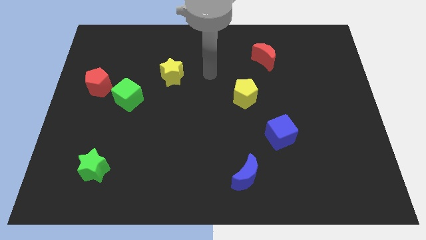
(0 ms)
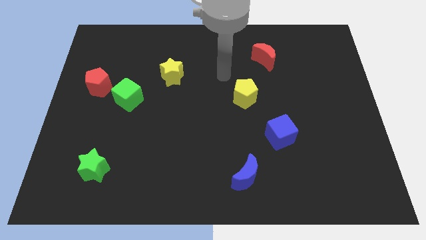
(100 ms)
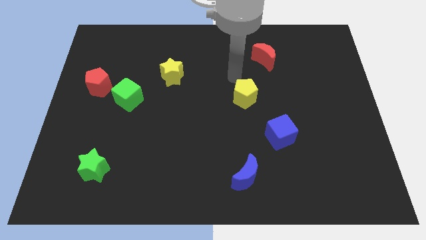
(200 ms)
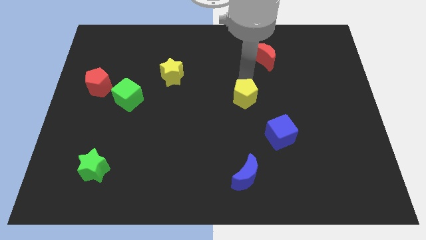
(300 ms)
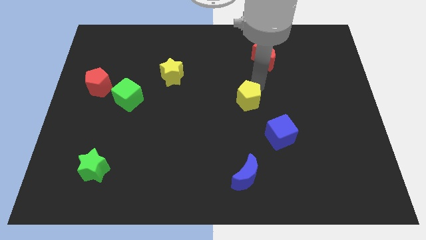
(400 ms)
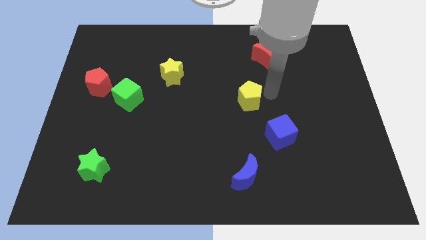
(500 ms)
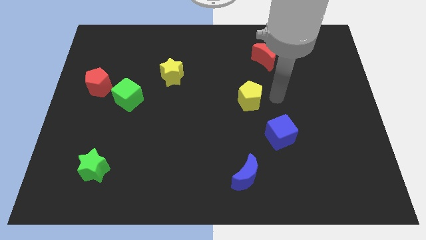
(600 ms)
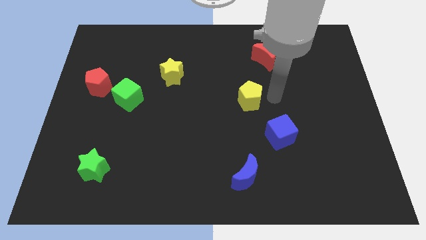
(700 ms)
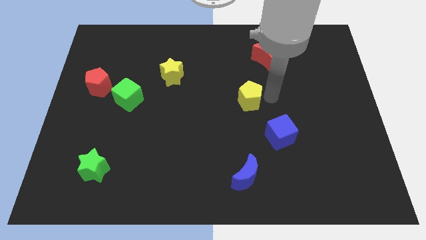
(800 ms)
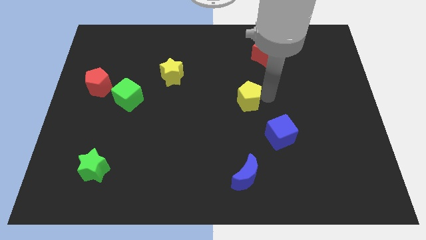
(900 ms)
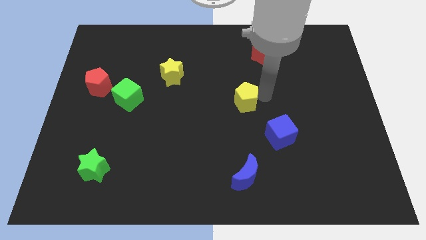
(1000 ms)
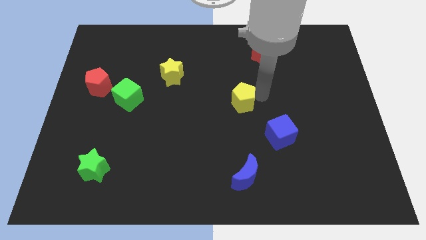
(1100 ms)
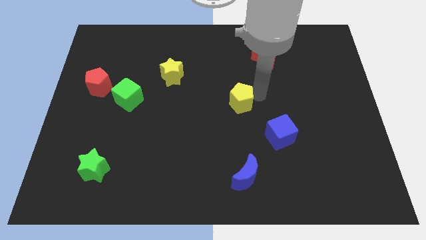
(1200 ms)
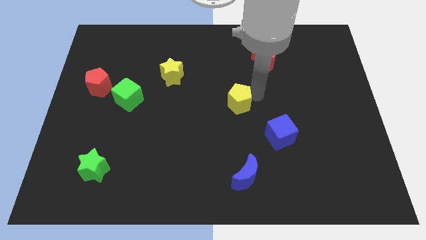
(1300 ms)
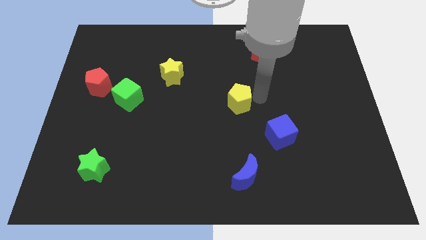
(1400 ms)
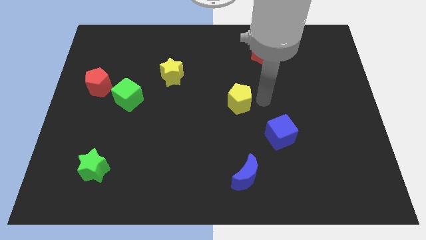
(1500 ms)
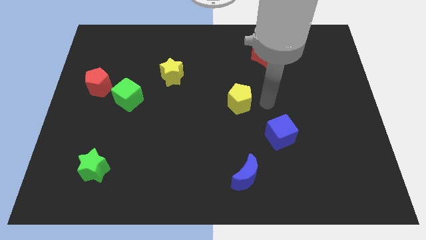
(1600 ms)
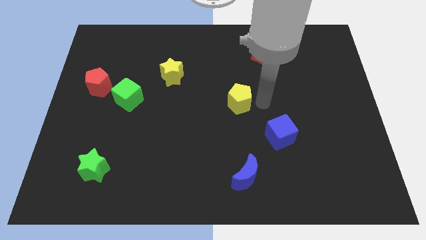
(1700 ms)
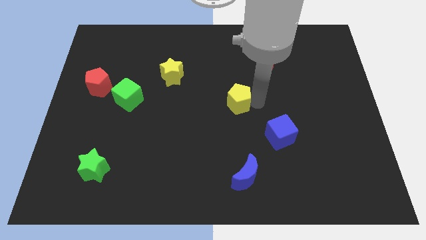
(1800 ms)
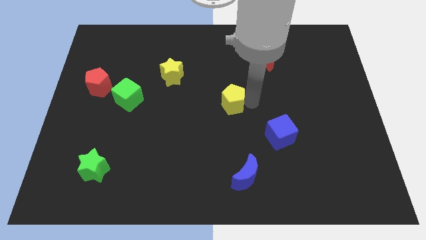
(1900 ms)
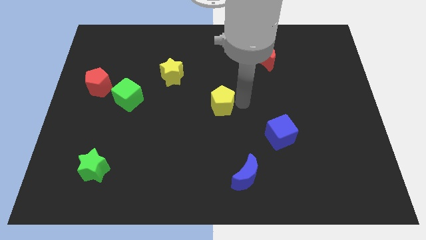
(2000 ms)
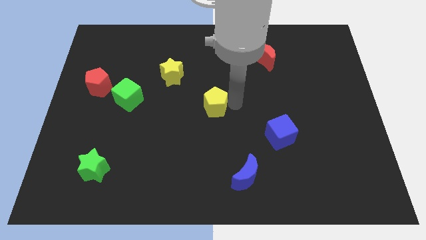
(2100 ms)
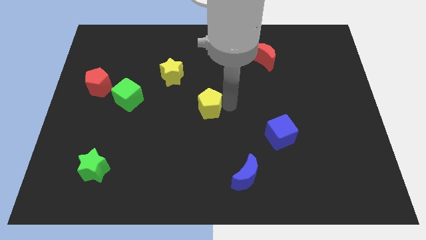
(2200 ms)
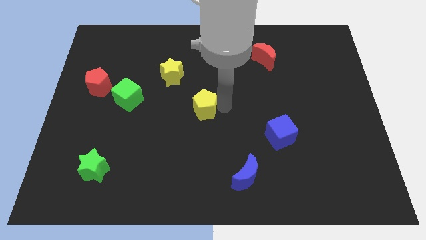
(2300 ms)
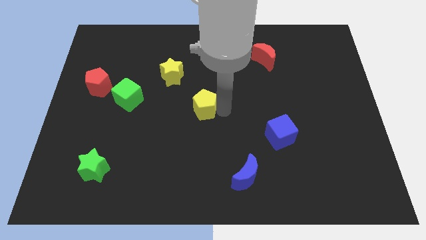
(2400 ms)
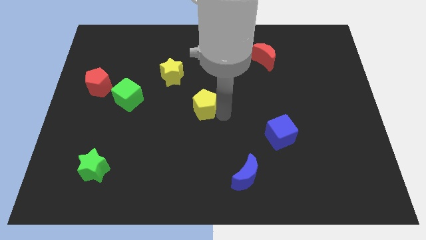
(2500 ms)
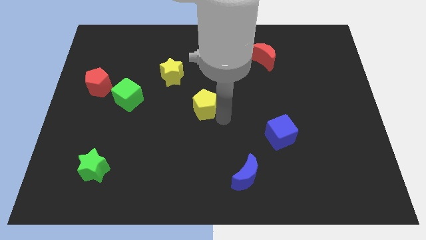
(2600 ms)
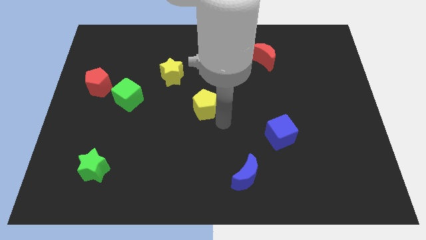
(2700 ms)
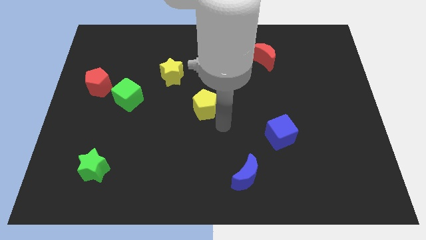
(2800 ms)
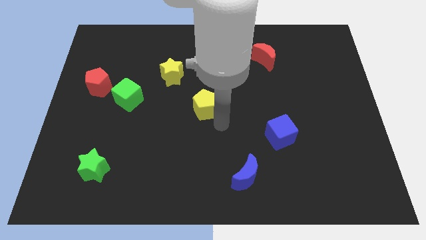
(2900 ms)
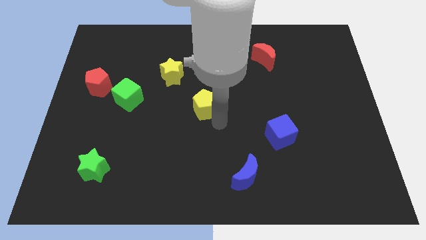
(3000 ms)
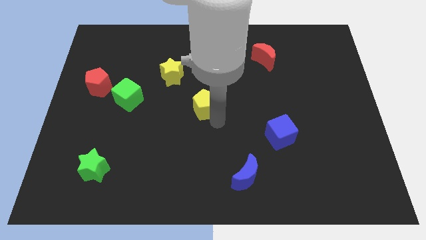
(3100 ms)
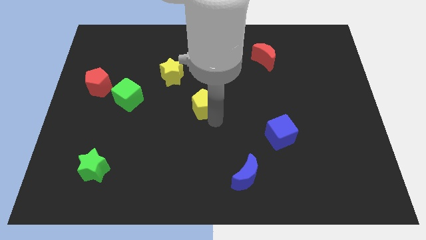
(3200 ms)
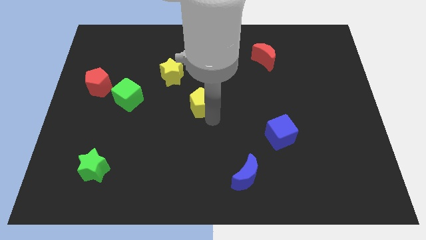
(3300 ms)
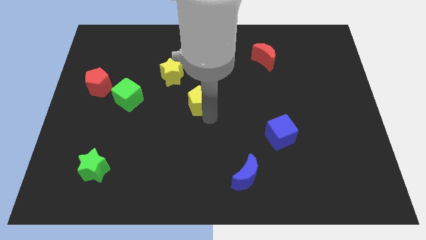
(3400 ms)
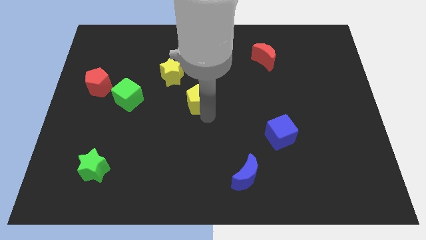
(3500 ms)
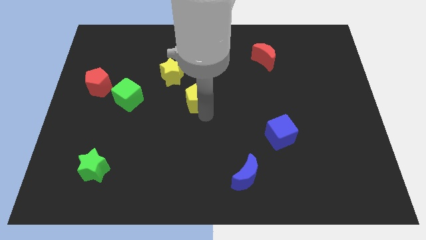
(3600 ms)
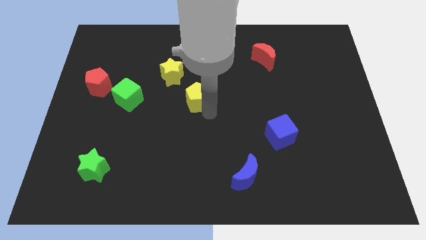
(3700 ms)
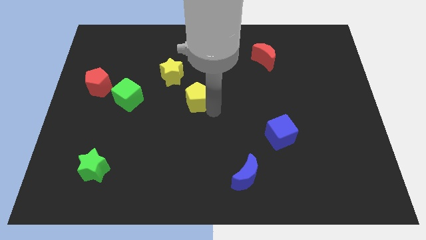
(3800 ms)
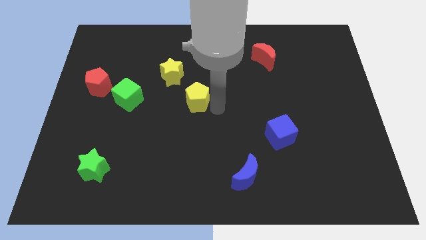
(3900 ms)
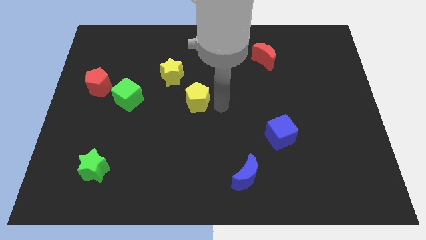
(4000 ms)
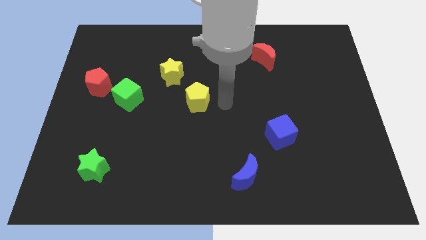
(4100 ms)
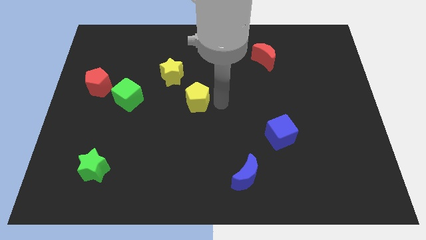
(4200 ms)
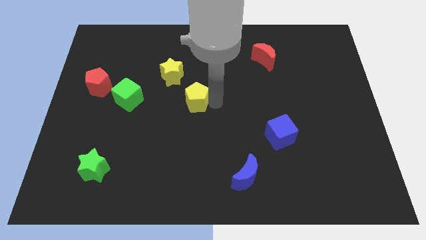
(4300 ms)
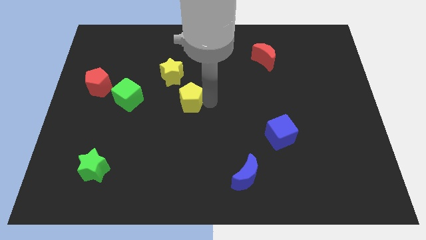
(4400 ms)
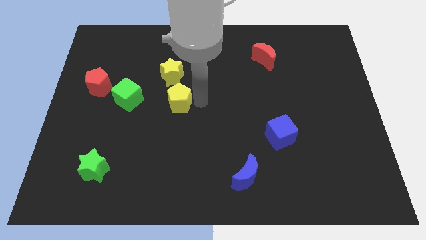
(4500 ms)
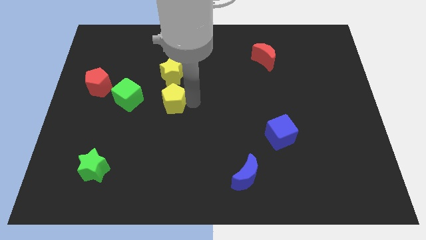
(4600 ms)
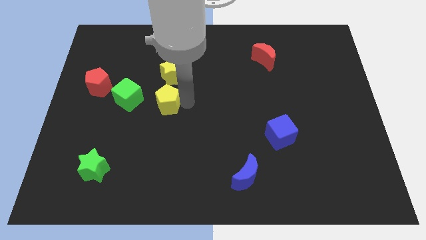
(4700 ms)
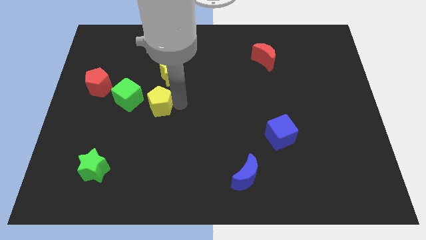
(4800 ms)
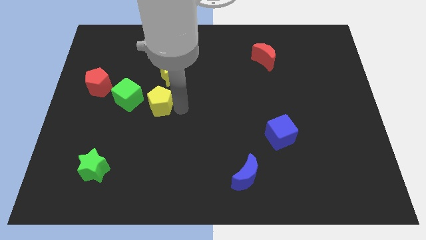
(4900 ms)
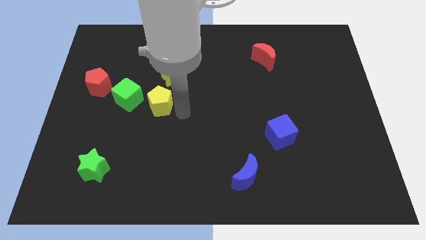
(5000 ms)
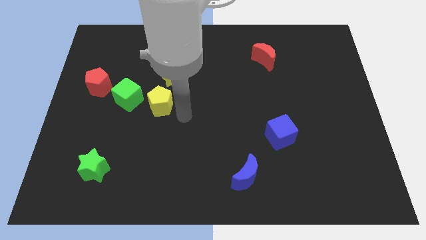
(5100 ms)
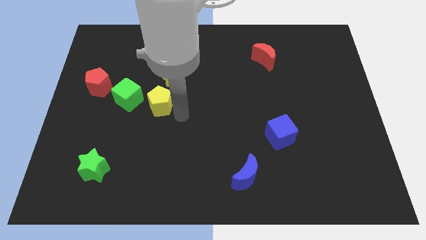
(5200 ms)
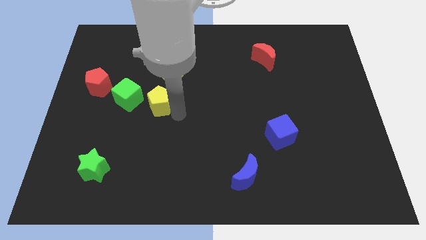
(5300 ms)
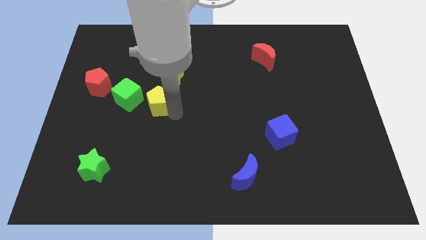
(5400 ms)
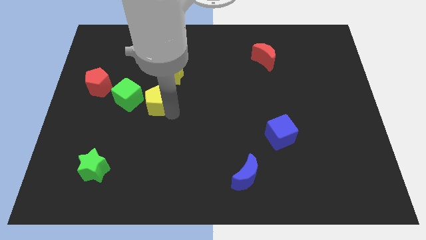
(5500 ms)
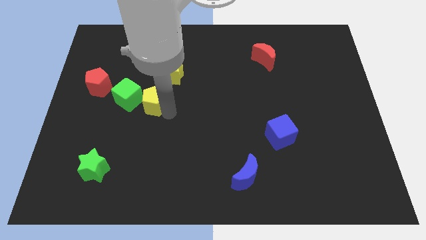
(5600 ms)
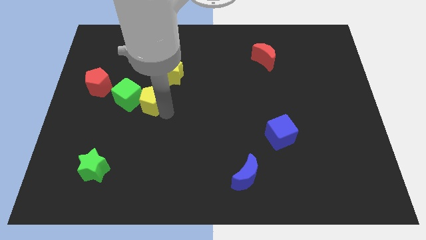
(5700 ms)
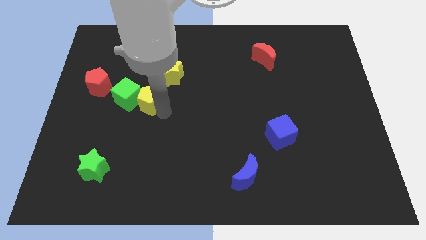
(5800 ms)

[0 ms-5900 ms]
move the yellow pentagon to the green cube

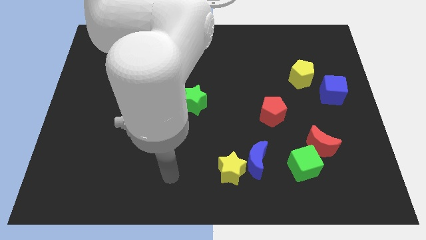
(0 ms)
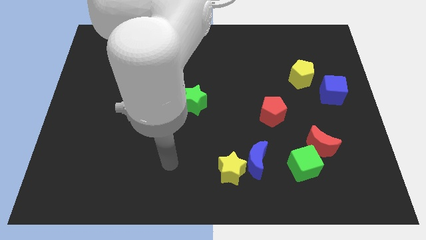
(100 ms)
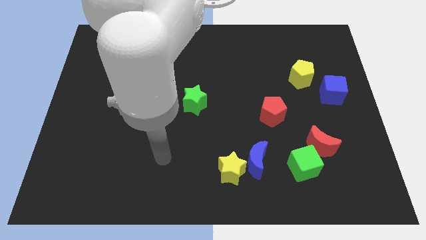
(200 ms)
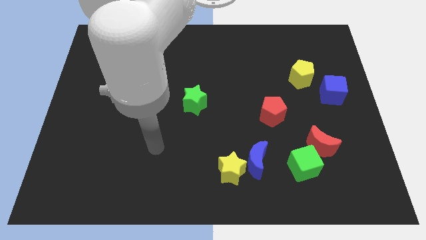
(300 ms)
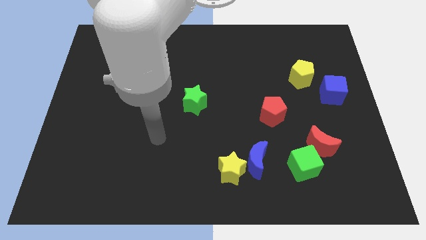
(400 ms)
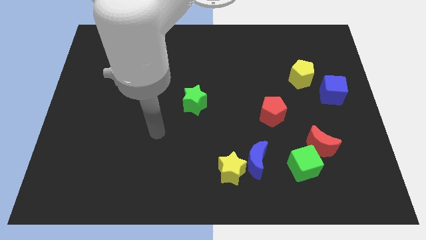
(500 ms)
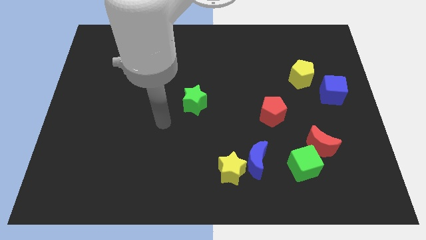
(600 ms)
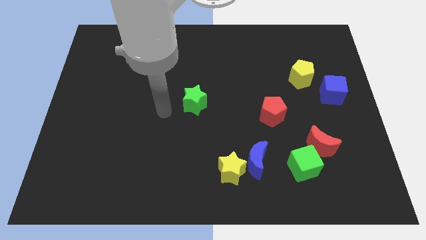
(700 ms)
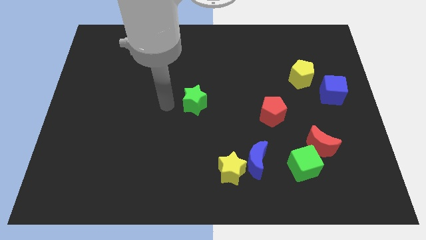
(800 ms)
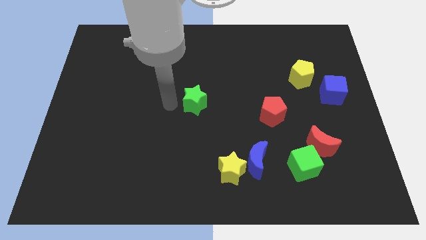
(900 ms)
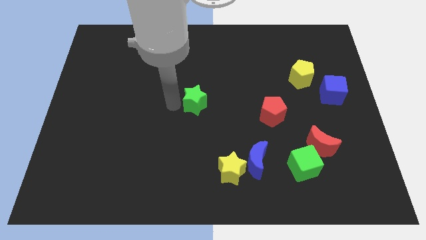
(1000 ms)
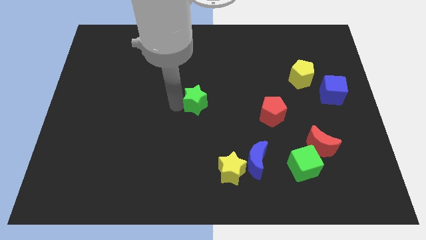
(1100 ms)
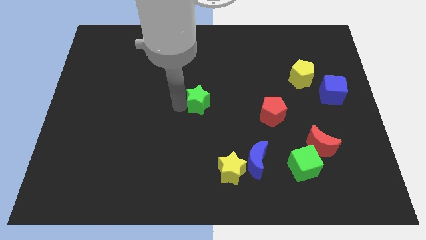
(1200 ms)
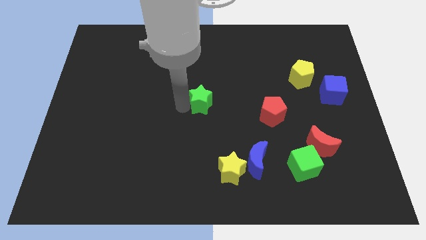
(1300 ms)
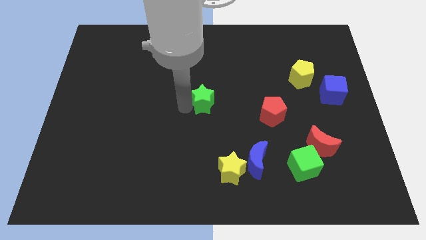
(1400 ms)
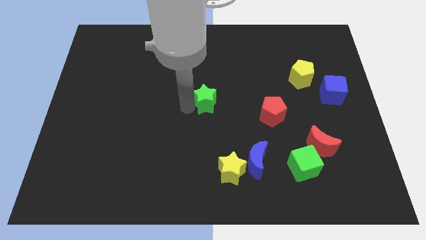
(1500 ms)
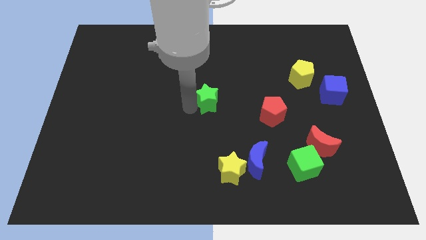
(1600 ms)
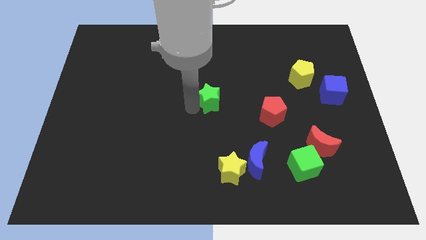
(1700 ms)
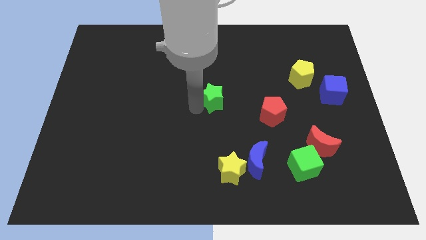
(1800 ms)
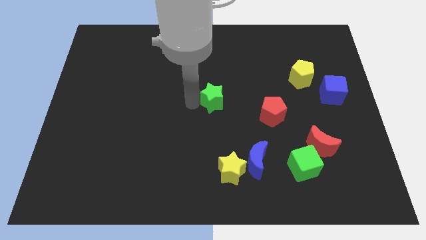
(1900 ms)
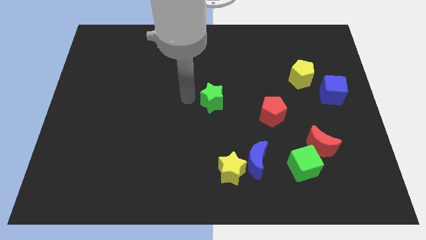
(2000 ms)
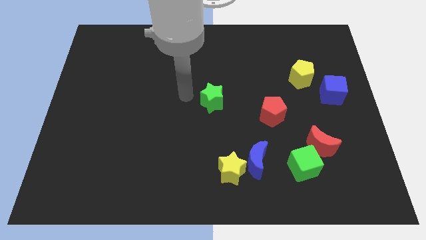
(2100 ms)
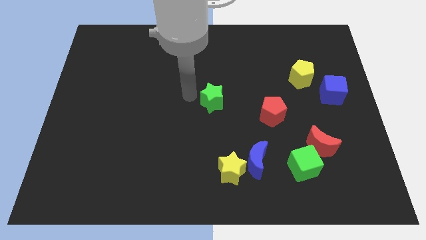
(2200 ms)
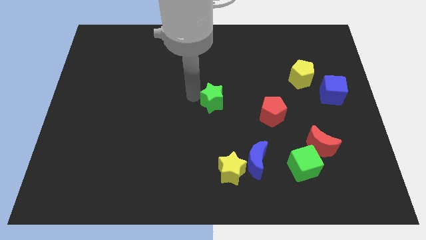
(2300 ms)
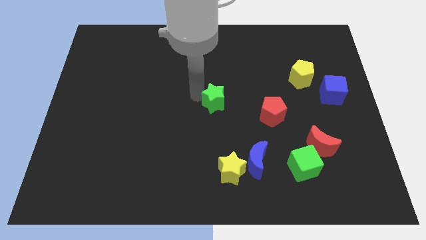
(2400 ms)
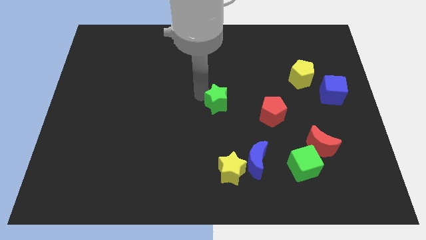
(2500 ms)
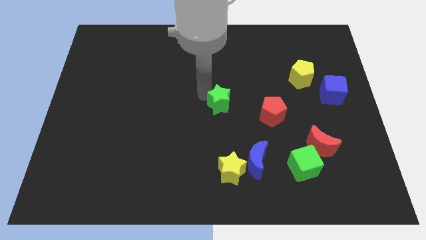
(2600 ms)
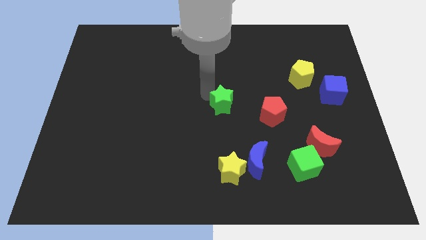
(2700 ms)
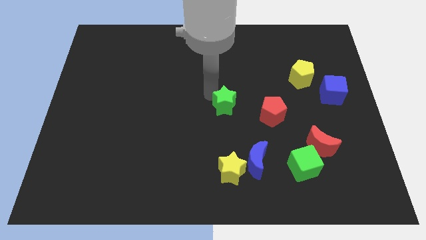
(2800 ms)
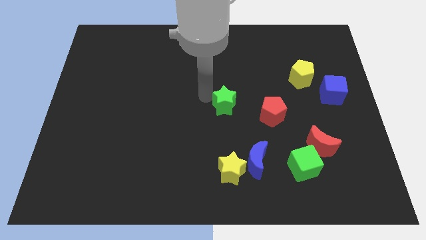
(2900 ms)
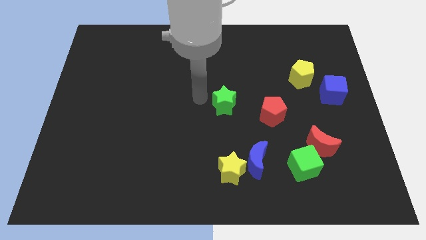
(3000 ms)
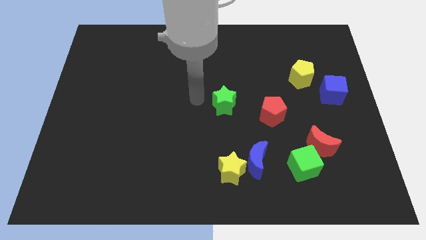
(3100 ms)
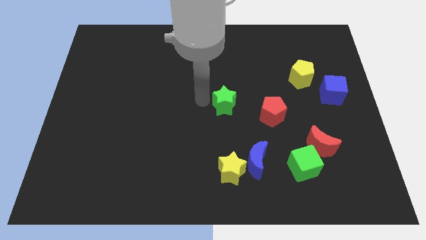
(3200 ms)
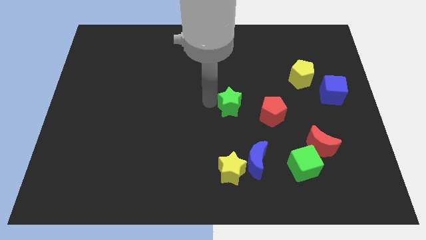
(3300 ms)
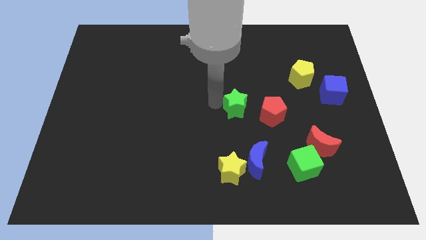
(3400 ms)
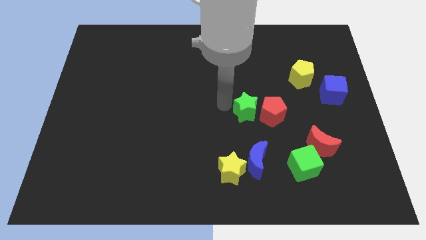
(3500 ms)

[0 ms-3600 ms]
push the green star to the red pentagon
